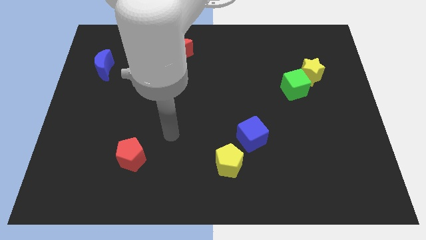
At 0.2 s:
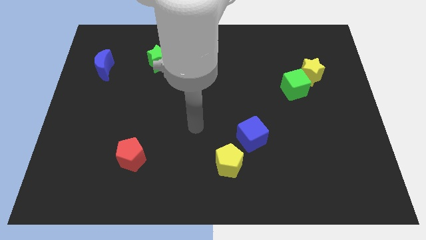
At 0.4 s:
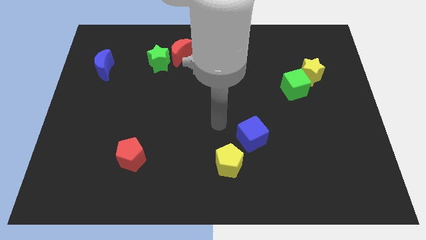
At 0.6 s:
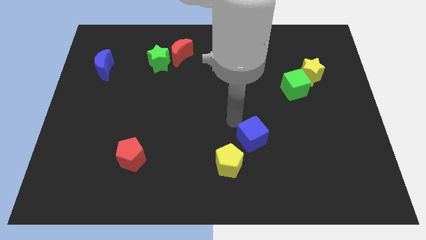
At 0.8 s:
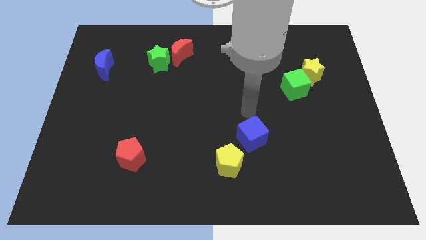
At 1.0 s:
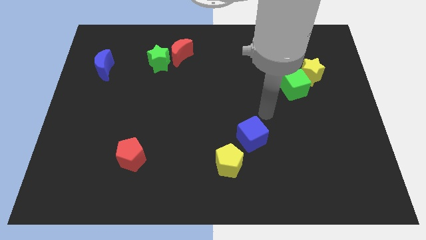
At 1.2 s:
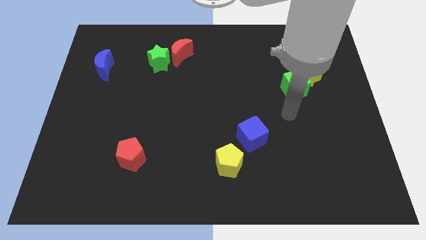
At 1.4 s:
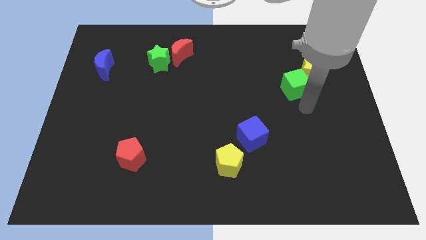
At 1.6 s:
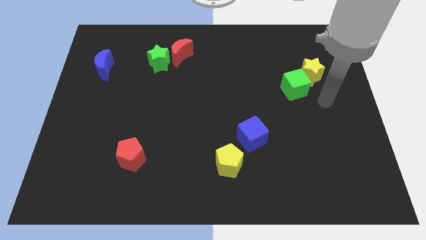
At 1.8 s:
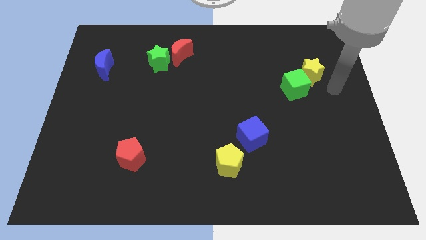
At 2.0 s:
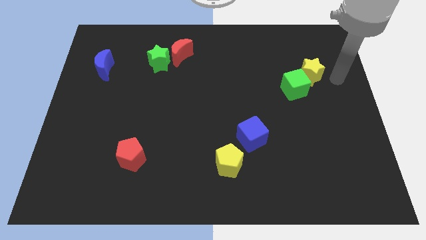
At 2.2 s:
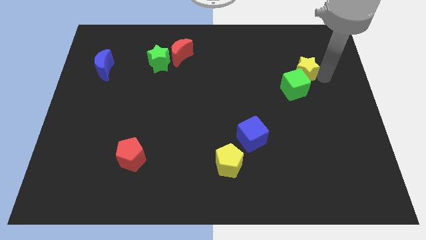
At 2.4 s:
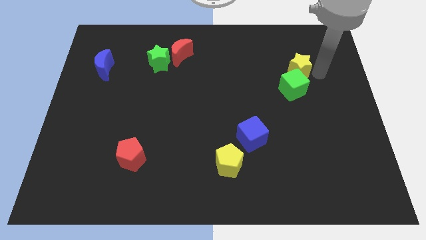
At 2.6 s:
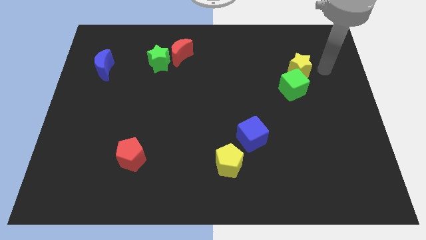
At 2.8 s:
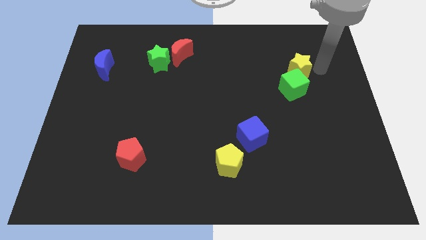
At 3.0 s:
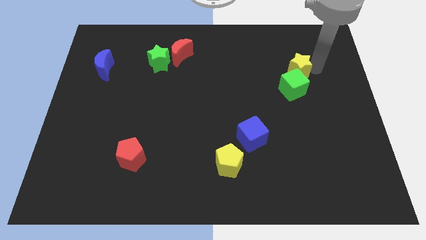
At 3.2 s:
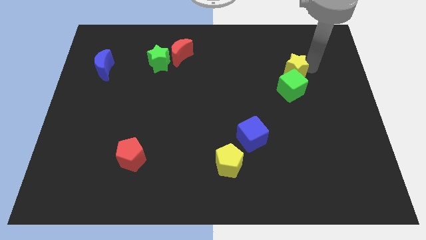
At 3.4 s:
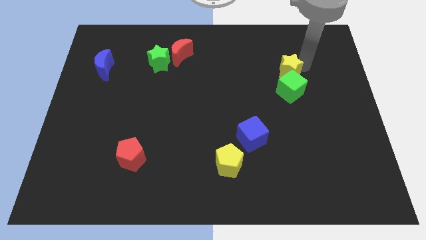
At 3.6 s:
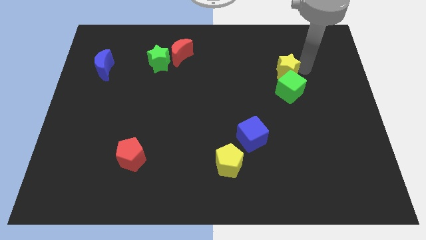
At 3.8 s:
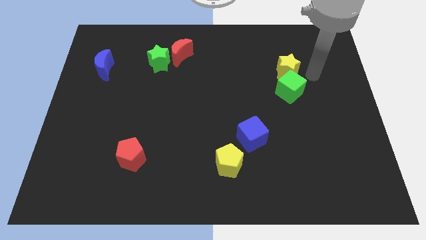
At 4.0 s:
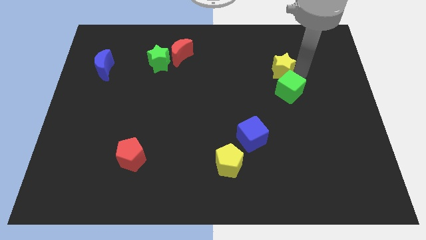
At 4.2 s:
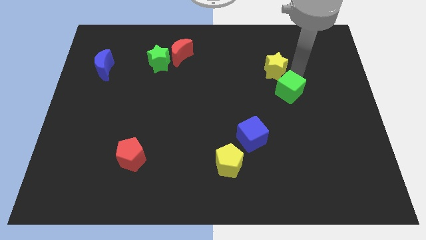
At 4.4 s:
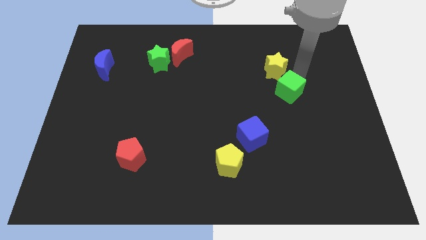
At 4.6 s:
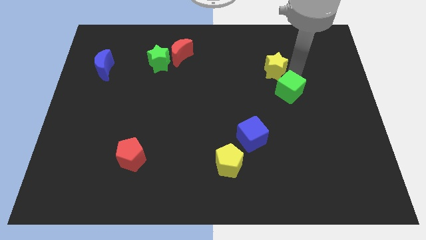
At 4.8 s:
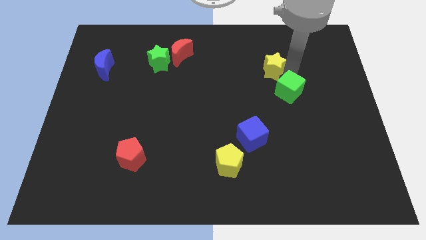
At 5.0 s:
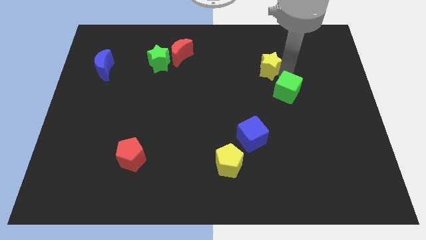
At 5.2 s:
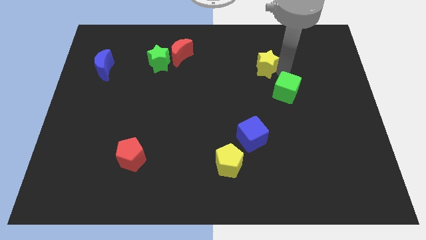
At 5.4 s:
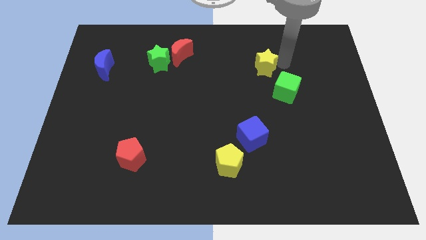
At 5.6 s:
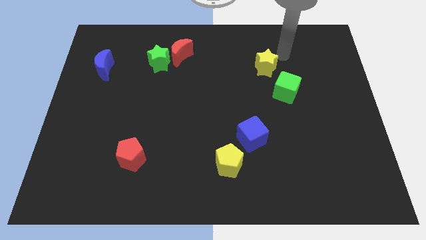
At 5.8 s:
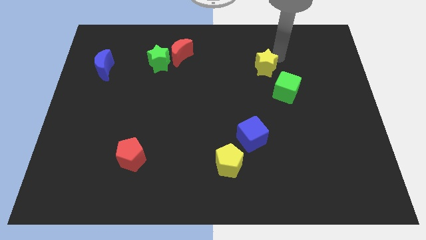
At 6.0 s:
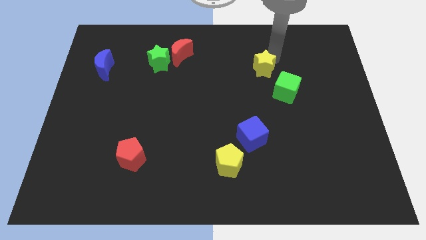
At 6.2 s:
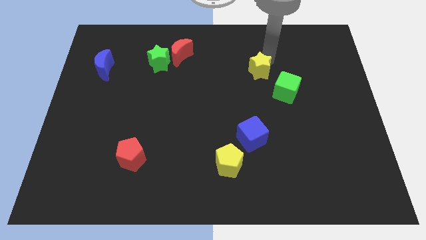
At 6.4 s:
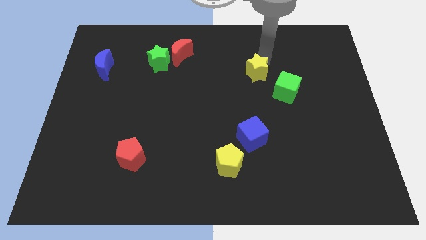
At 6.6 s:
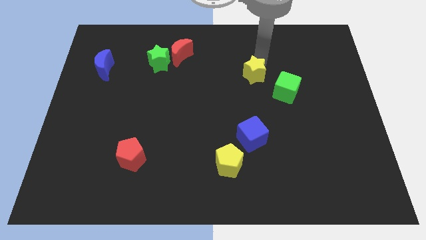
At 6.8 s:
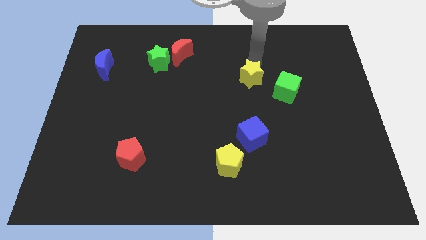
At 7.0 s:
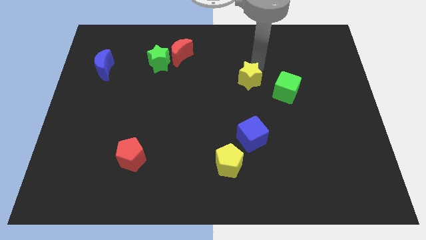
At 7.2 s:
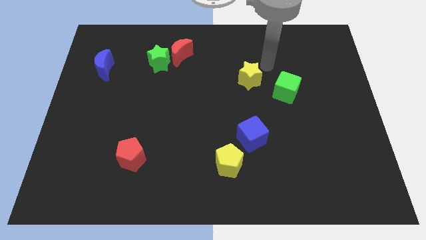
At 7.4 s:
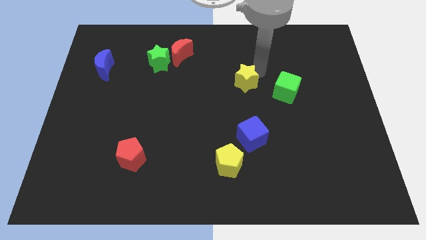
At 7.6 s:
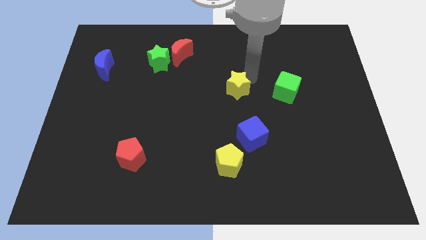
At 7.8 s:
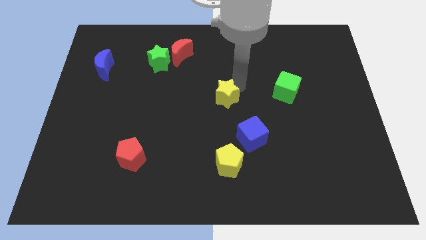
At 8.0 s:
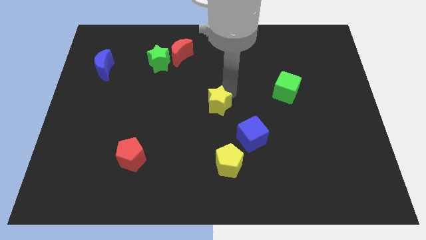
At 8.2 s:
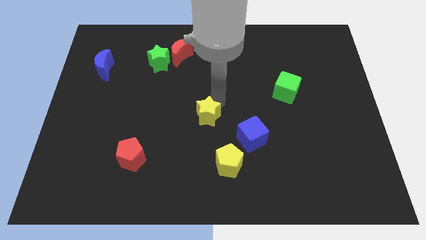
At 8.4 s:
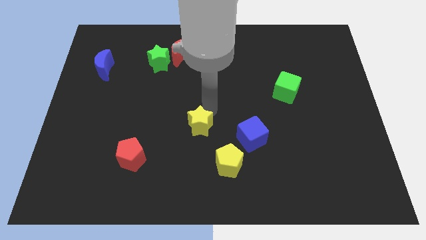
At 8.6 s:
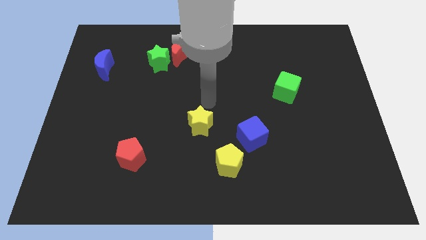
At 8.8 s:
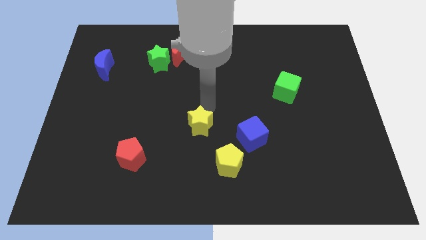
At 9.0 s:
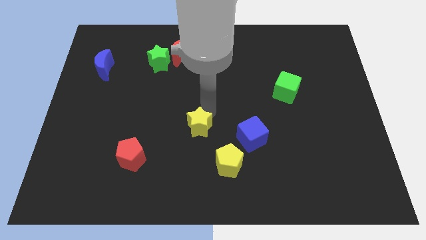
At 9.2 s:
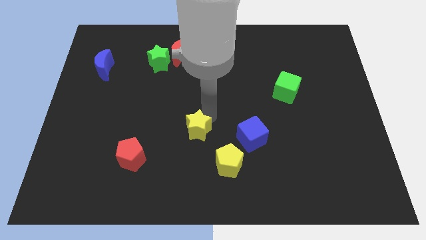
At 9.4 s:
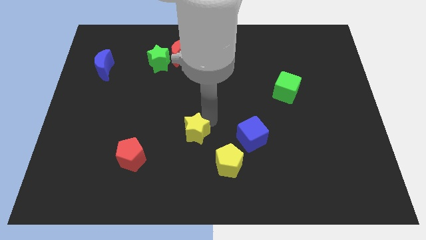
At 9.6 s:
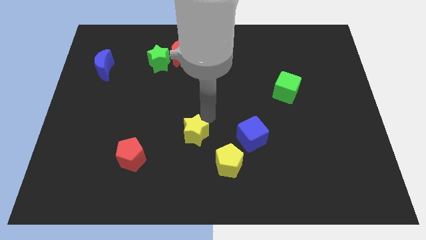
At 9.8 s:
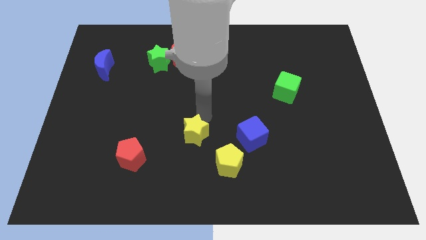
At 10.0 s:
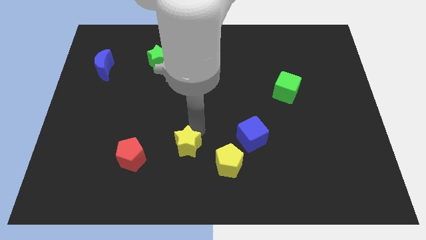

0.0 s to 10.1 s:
move the yellow star to the left side of the yellow pentagon
